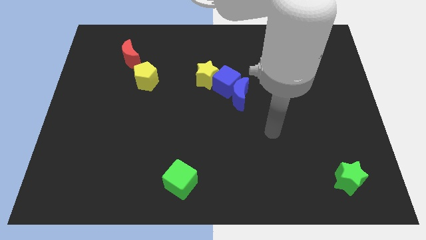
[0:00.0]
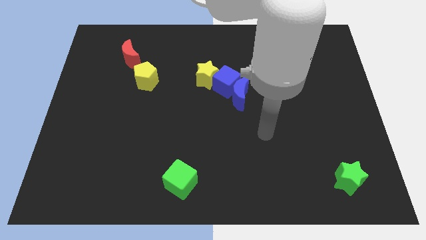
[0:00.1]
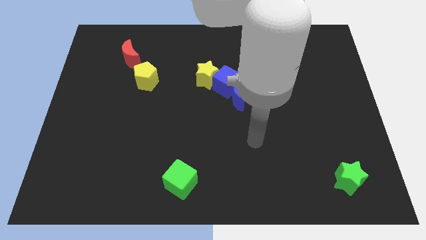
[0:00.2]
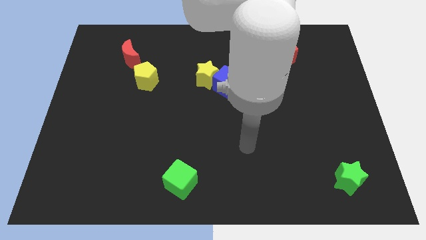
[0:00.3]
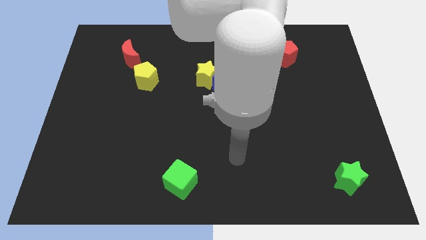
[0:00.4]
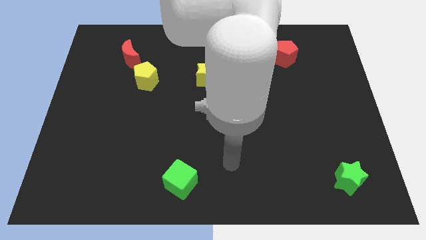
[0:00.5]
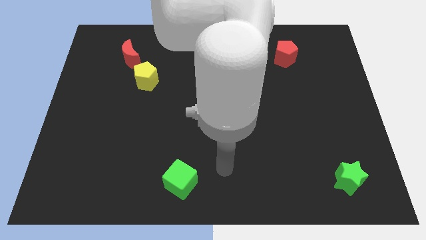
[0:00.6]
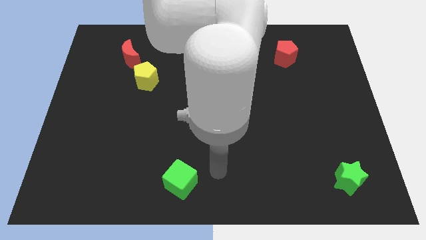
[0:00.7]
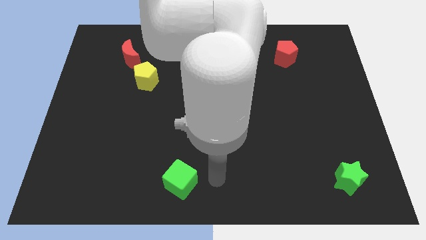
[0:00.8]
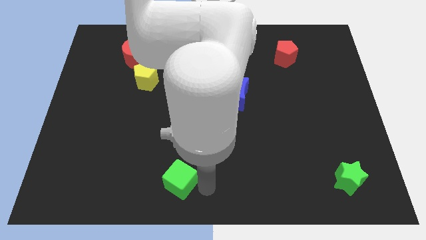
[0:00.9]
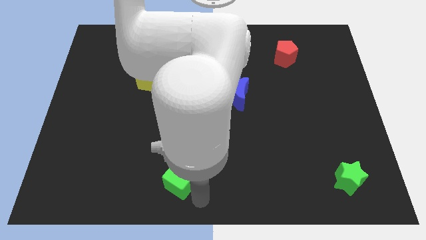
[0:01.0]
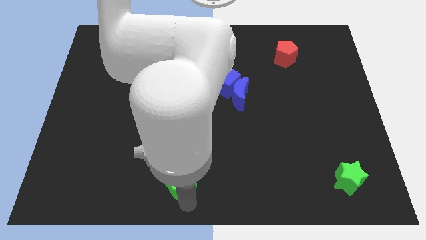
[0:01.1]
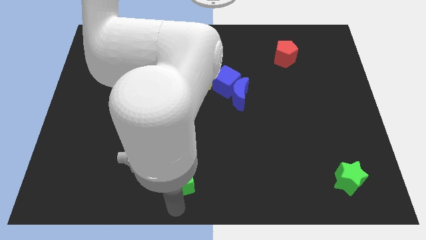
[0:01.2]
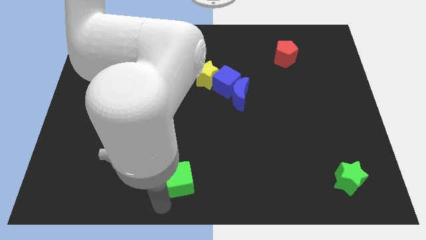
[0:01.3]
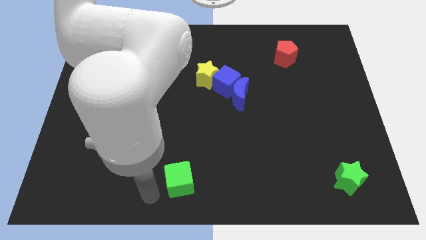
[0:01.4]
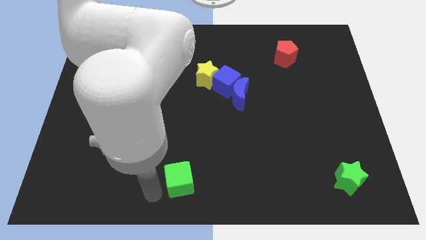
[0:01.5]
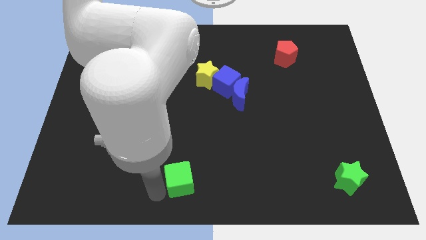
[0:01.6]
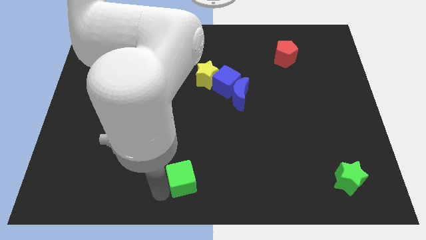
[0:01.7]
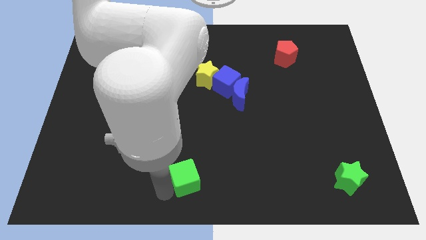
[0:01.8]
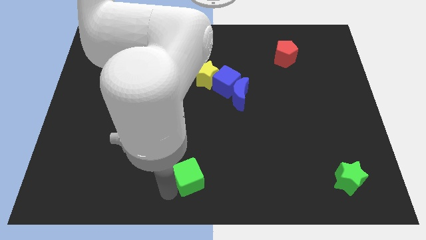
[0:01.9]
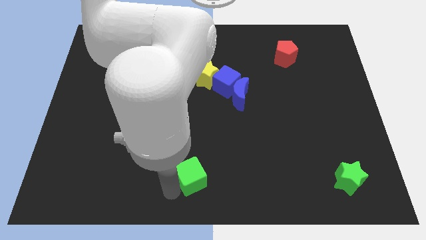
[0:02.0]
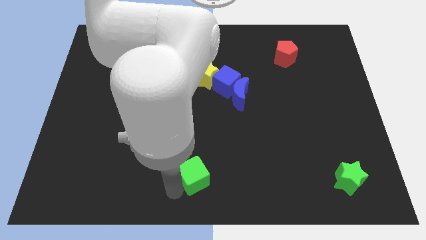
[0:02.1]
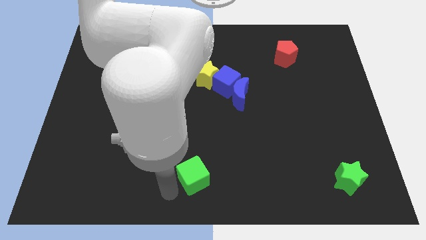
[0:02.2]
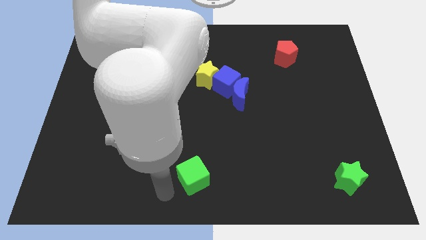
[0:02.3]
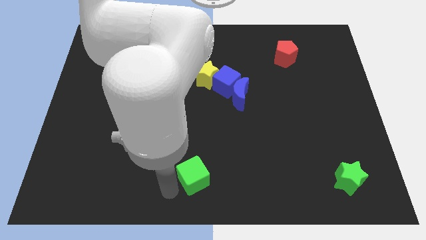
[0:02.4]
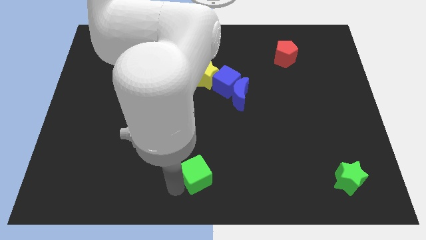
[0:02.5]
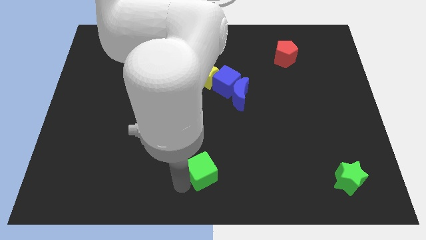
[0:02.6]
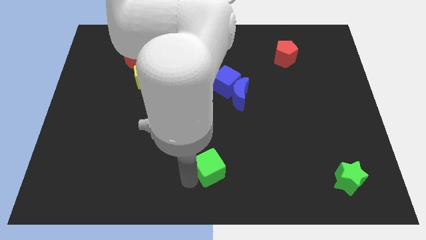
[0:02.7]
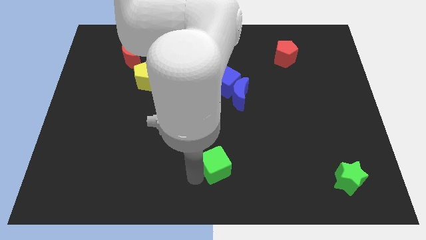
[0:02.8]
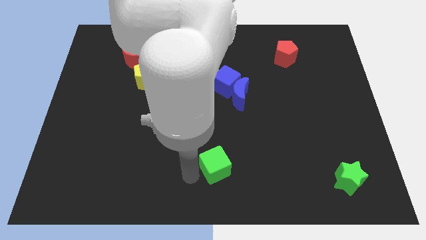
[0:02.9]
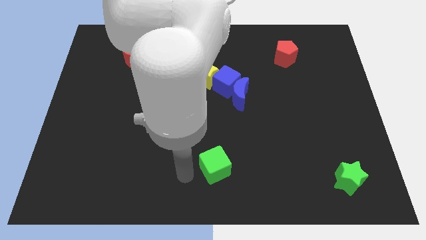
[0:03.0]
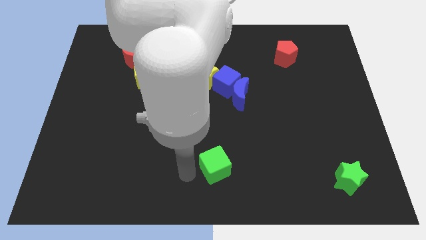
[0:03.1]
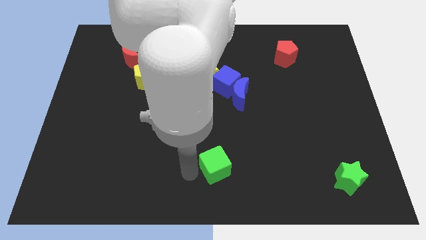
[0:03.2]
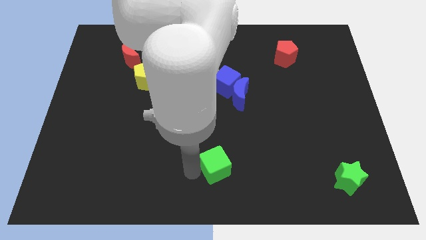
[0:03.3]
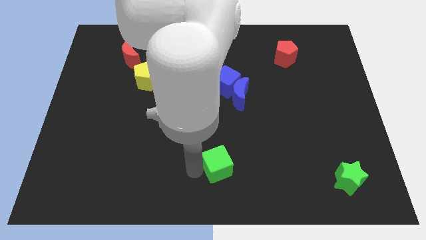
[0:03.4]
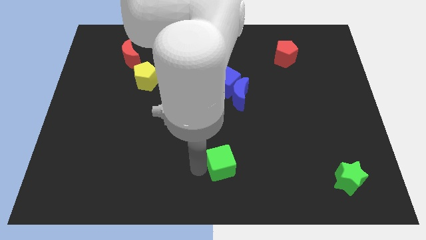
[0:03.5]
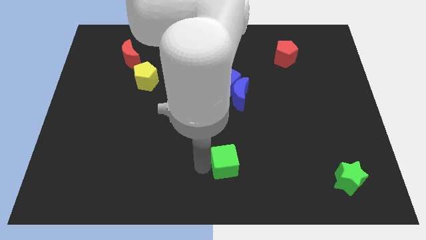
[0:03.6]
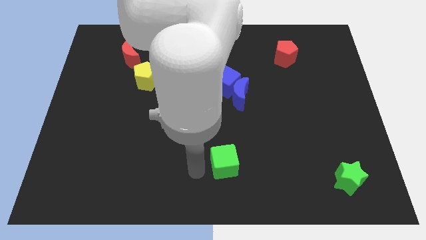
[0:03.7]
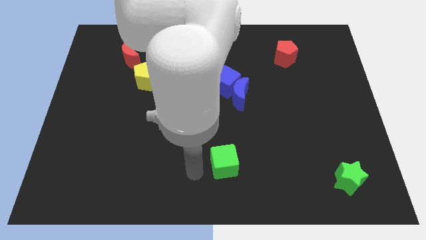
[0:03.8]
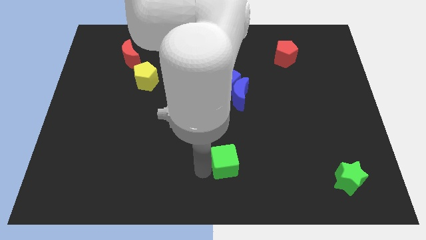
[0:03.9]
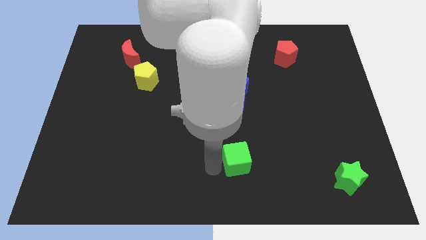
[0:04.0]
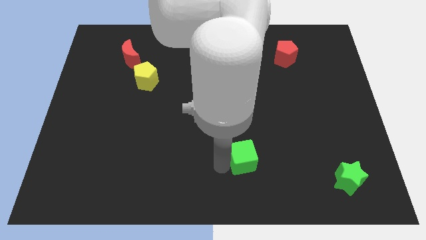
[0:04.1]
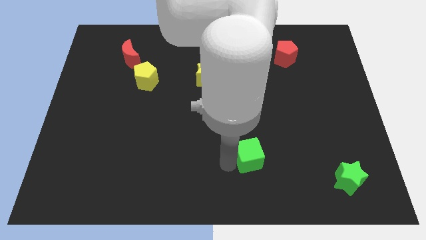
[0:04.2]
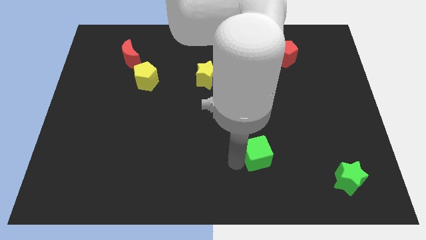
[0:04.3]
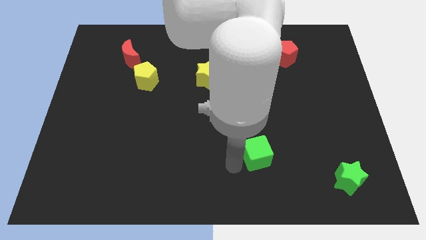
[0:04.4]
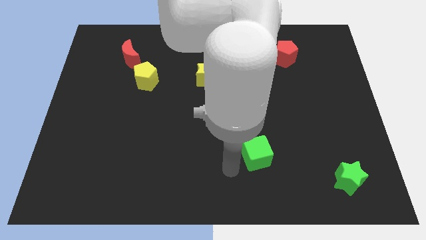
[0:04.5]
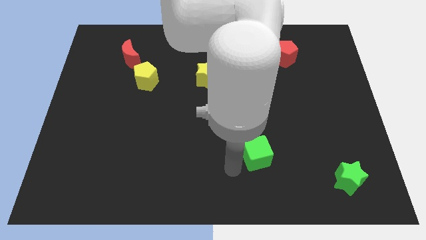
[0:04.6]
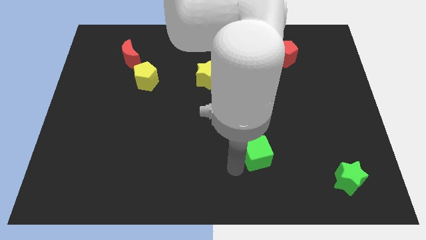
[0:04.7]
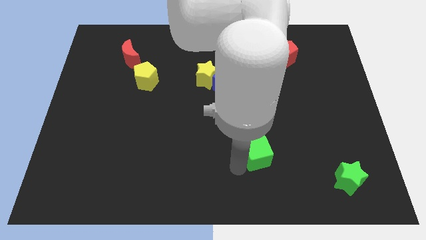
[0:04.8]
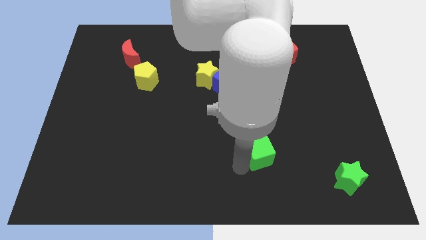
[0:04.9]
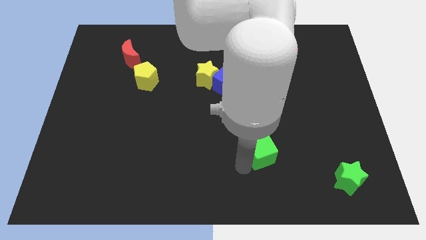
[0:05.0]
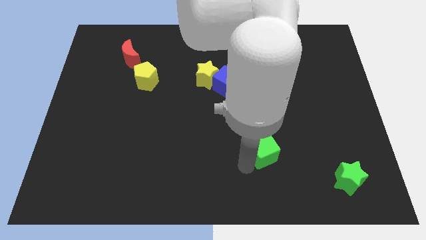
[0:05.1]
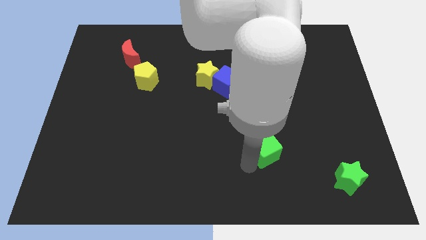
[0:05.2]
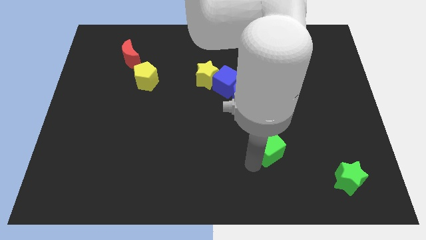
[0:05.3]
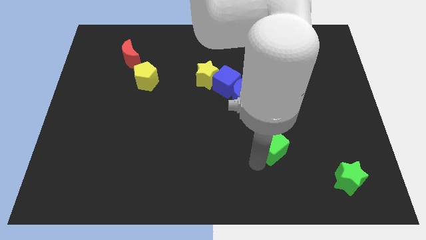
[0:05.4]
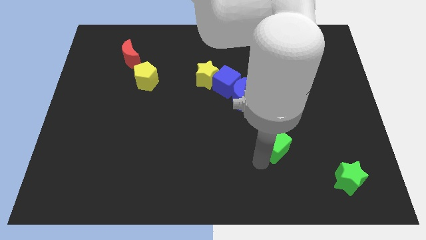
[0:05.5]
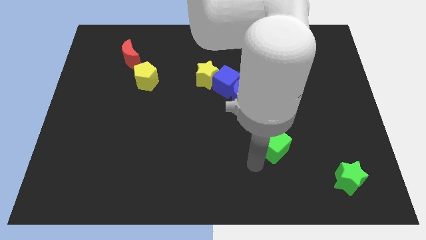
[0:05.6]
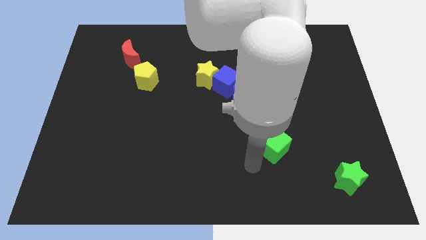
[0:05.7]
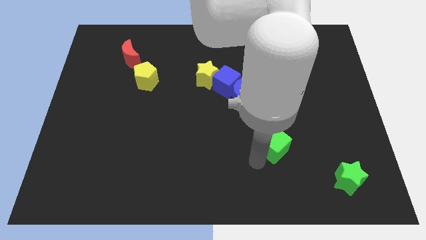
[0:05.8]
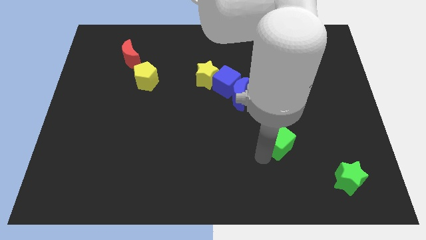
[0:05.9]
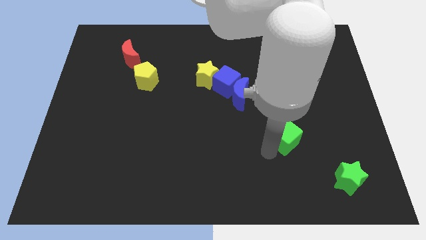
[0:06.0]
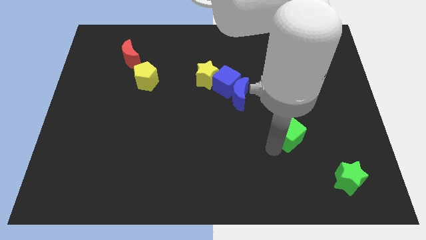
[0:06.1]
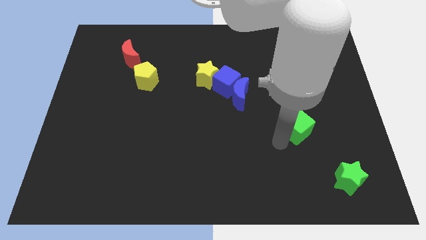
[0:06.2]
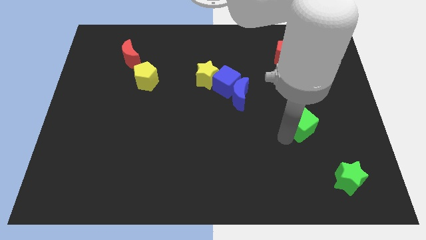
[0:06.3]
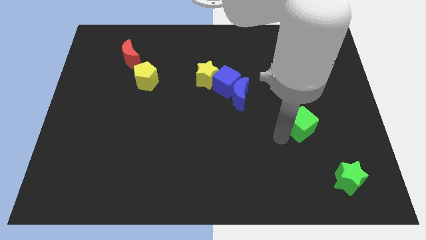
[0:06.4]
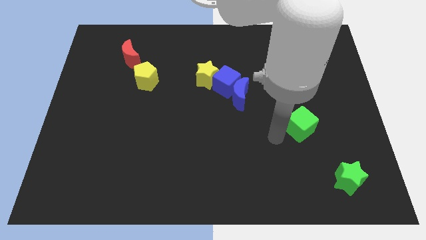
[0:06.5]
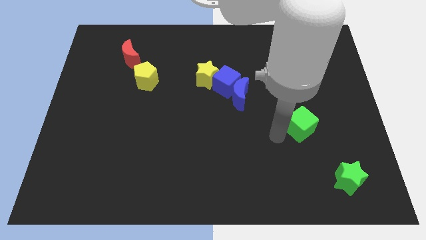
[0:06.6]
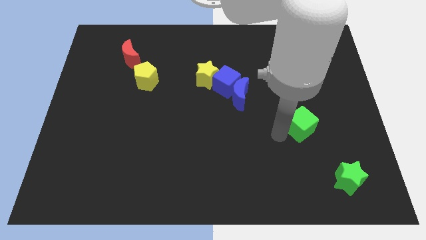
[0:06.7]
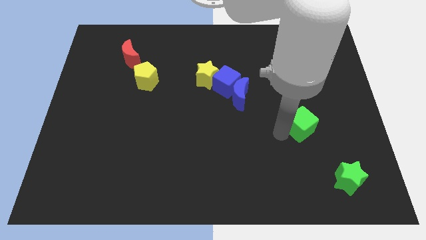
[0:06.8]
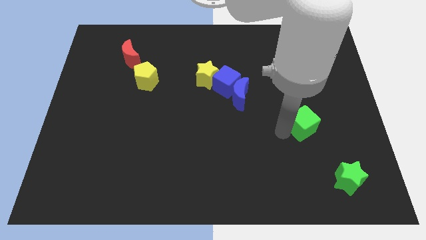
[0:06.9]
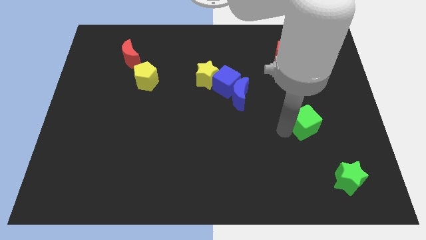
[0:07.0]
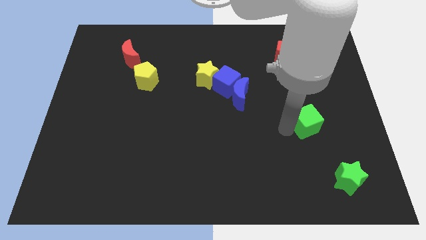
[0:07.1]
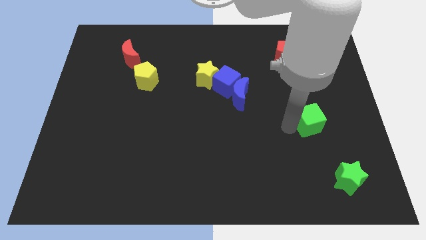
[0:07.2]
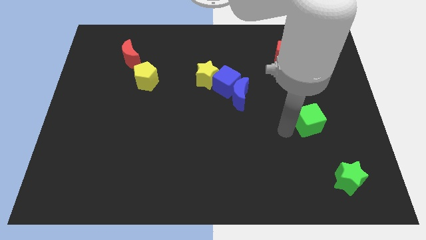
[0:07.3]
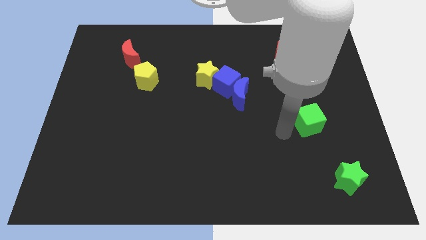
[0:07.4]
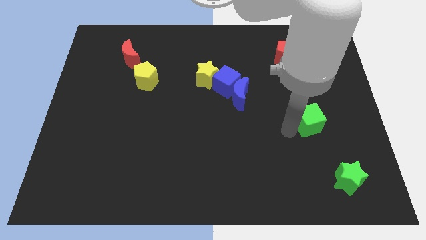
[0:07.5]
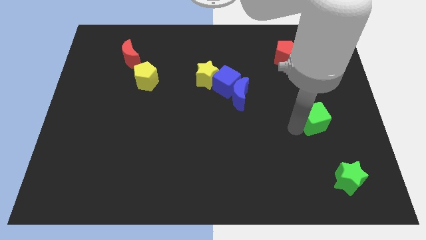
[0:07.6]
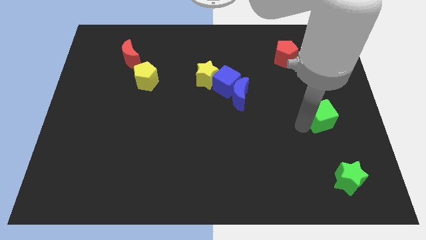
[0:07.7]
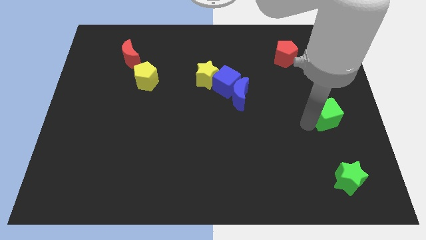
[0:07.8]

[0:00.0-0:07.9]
push the green cube to the right side
